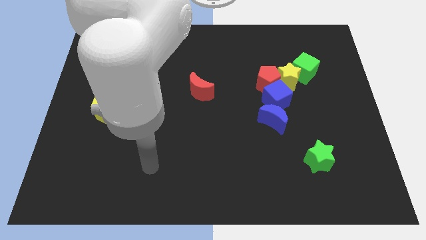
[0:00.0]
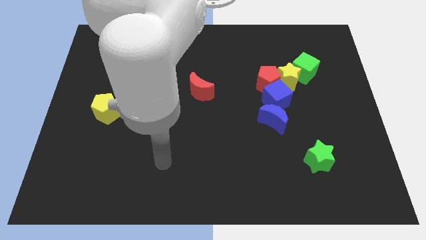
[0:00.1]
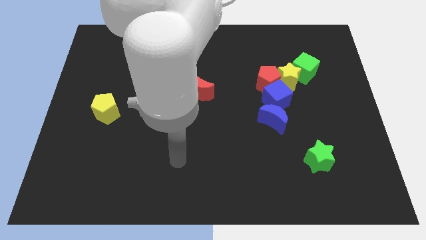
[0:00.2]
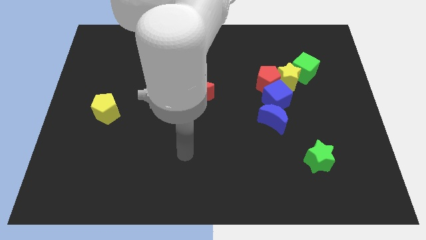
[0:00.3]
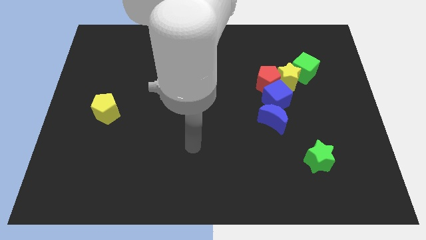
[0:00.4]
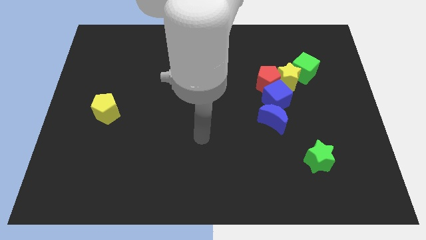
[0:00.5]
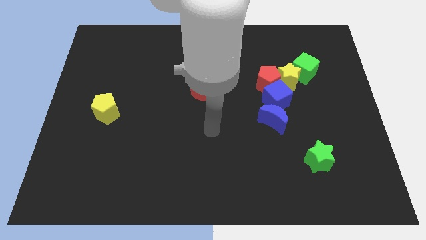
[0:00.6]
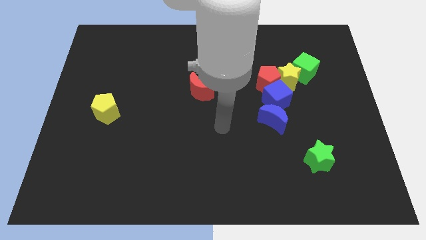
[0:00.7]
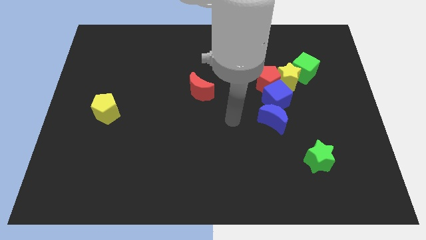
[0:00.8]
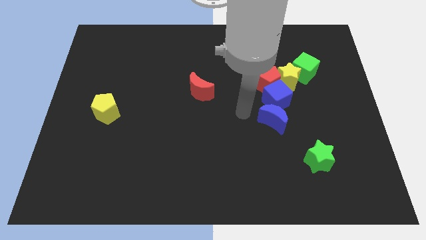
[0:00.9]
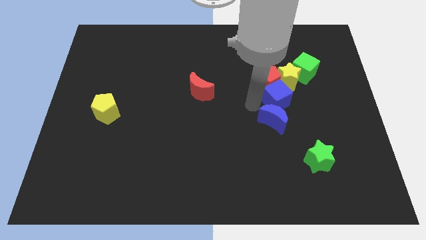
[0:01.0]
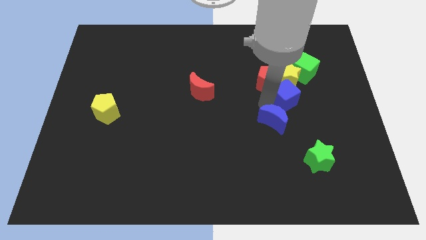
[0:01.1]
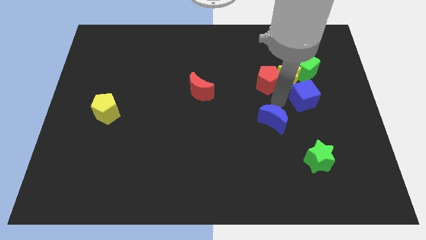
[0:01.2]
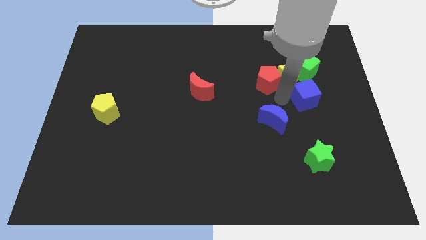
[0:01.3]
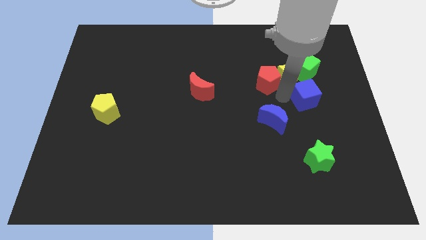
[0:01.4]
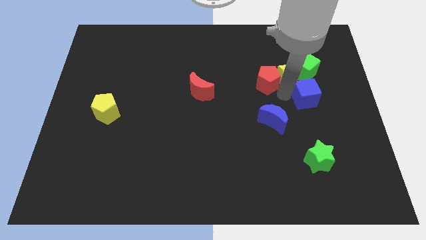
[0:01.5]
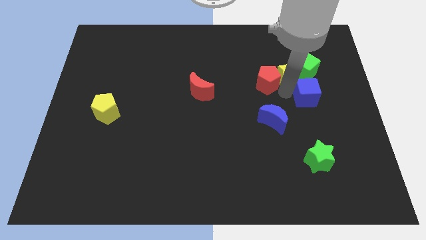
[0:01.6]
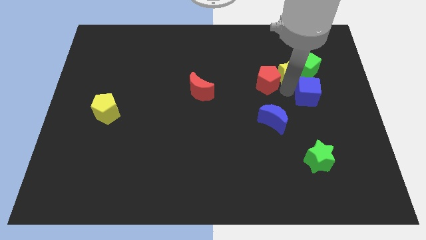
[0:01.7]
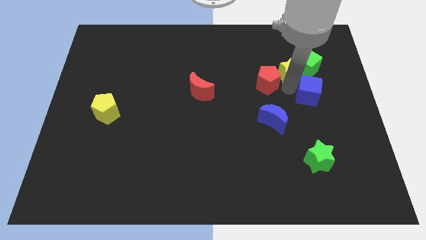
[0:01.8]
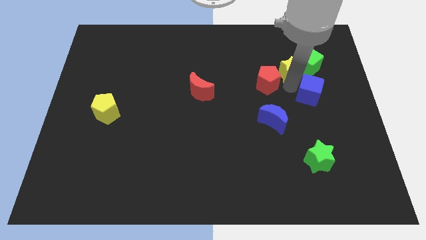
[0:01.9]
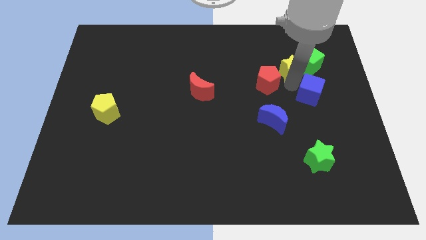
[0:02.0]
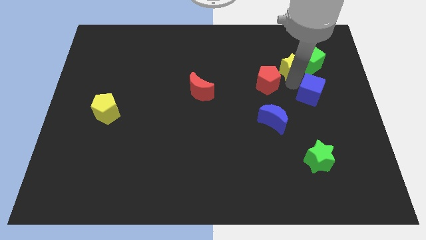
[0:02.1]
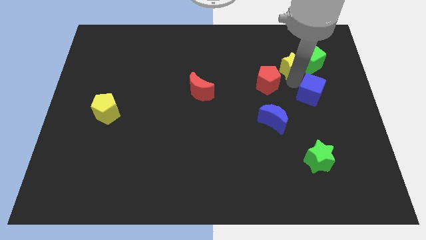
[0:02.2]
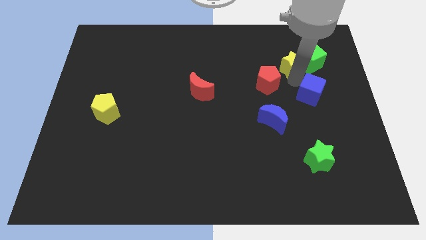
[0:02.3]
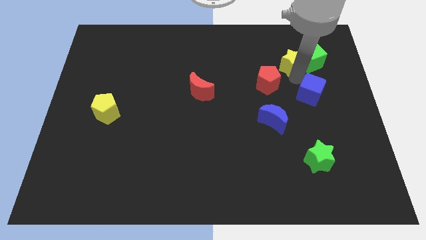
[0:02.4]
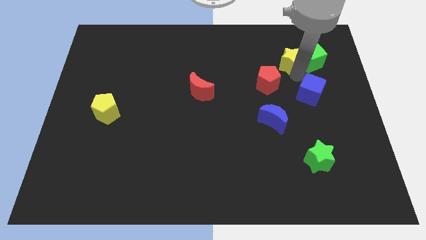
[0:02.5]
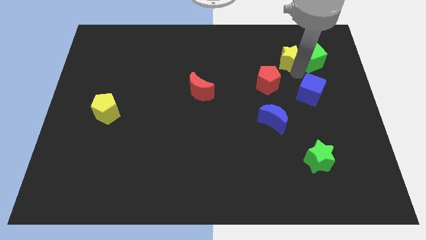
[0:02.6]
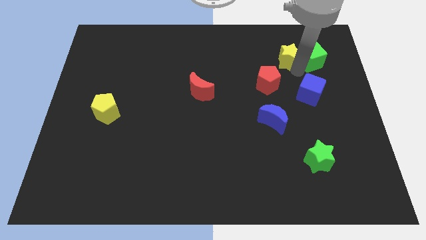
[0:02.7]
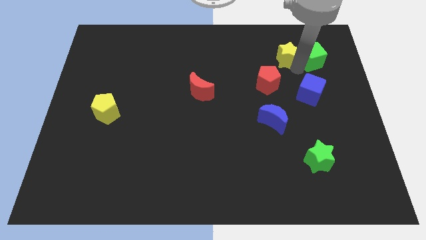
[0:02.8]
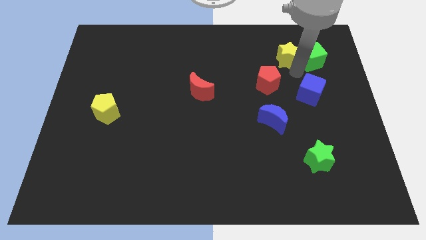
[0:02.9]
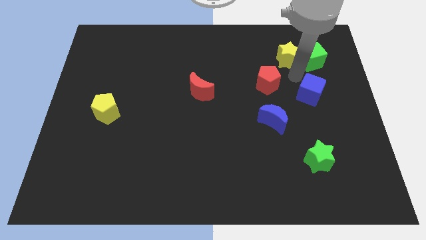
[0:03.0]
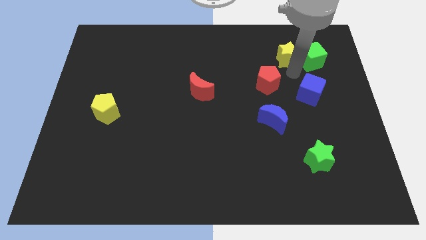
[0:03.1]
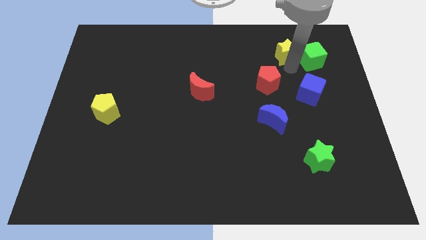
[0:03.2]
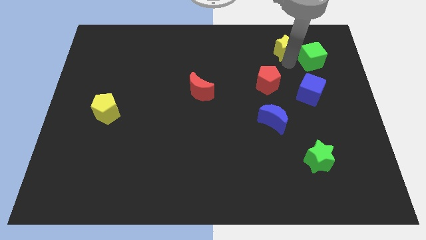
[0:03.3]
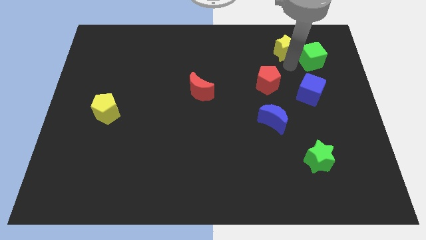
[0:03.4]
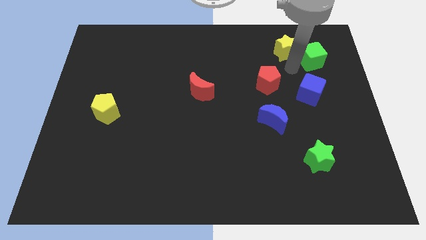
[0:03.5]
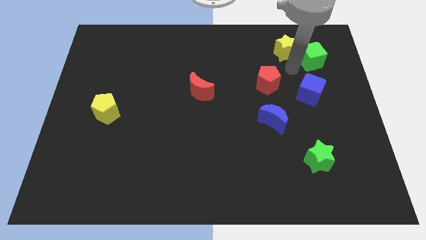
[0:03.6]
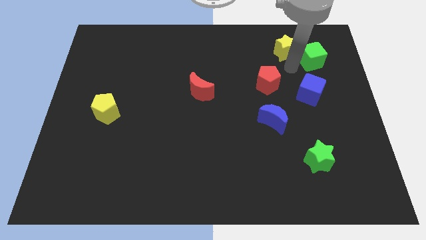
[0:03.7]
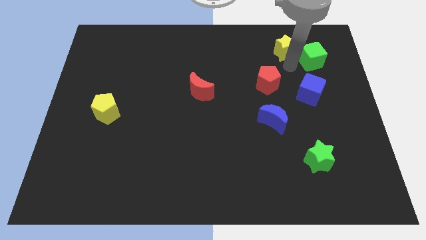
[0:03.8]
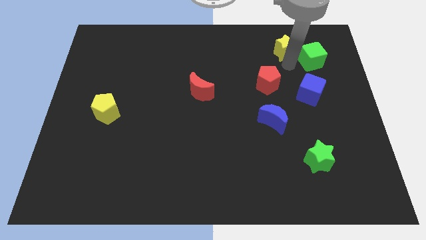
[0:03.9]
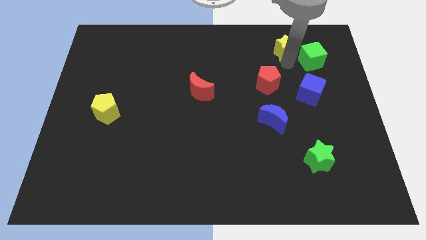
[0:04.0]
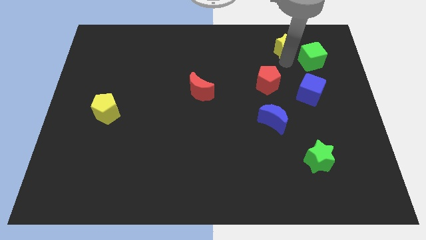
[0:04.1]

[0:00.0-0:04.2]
move the yellow star away from the group

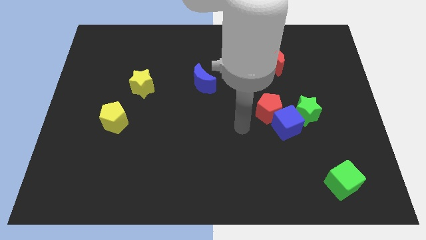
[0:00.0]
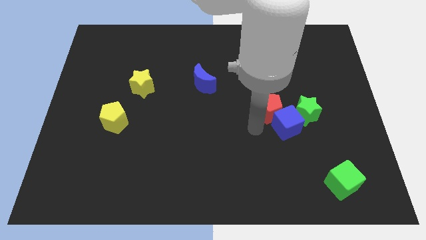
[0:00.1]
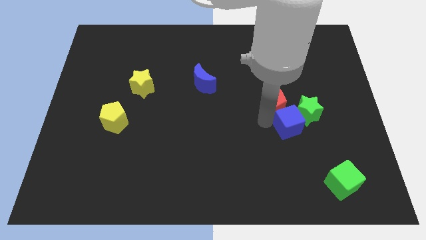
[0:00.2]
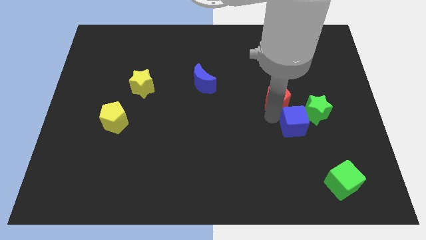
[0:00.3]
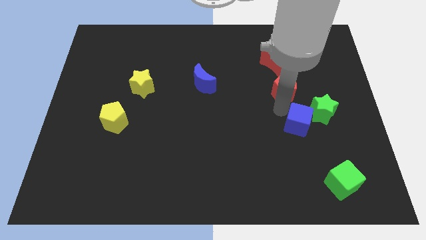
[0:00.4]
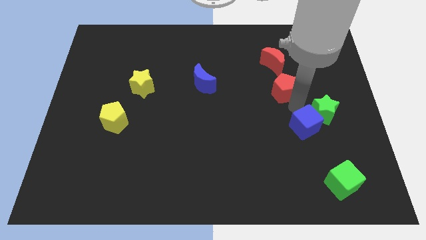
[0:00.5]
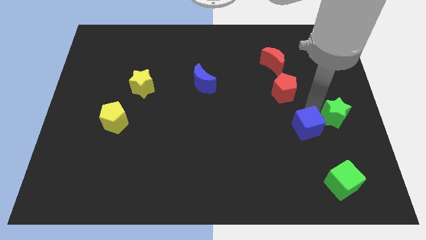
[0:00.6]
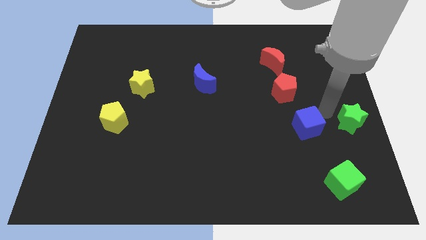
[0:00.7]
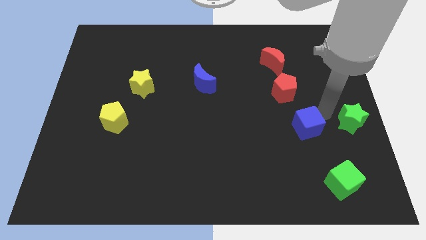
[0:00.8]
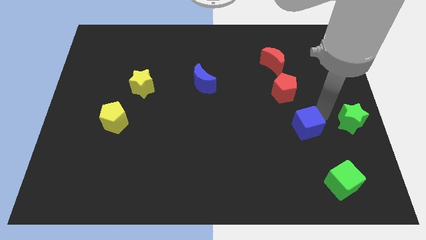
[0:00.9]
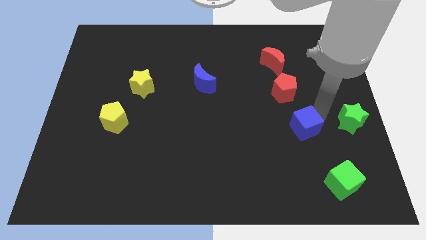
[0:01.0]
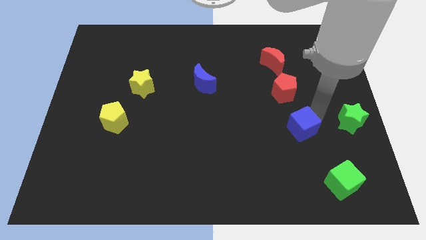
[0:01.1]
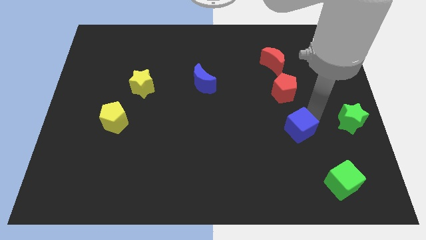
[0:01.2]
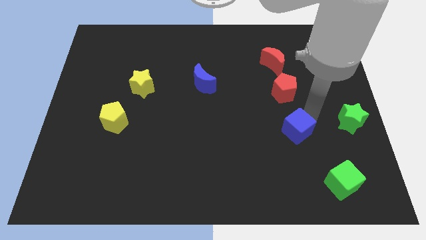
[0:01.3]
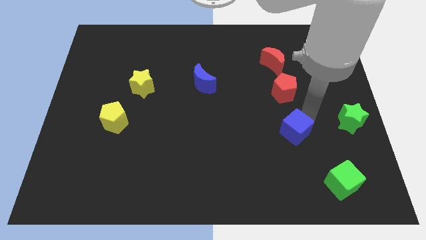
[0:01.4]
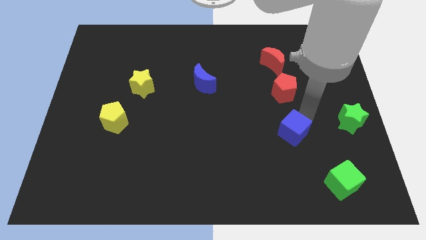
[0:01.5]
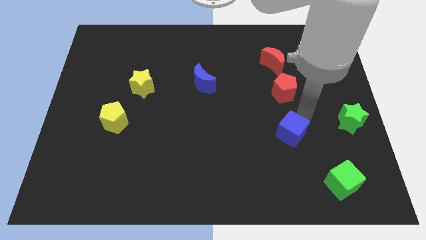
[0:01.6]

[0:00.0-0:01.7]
move the blue cube away from the red pentagon and green star

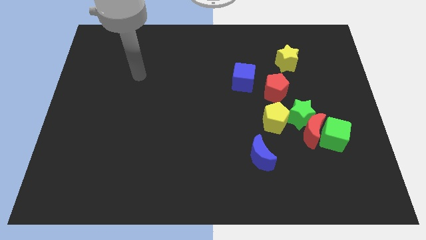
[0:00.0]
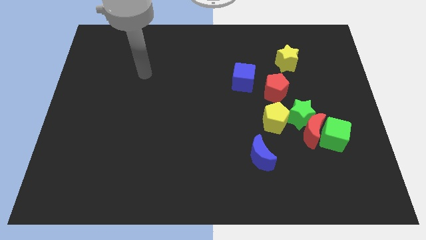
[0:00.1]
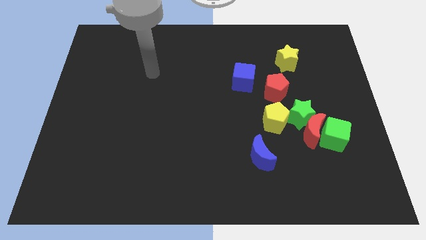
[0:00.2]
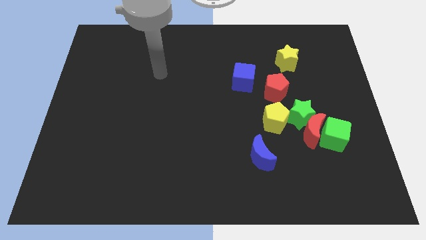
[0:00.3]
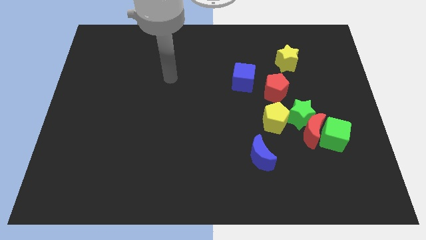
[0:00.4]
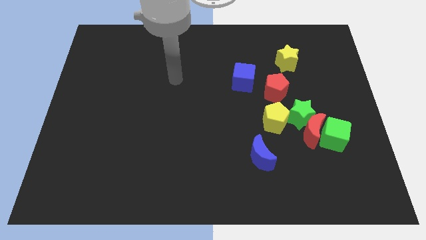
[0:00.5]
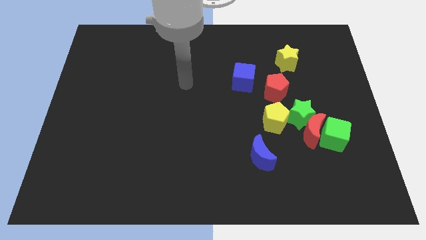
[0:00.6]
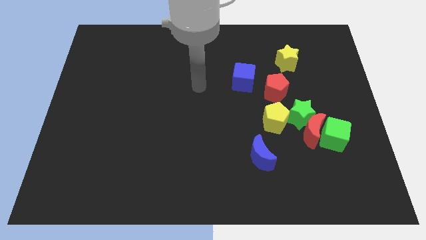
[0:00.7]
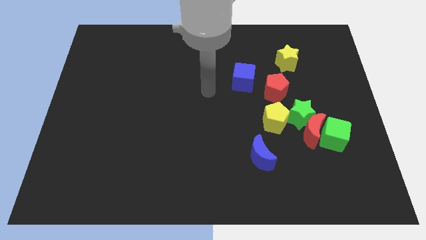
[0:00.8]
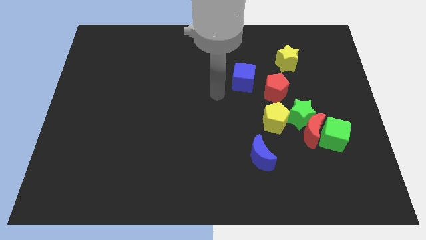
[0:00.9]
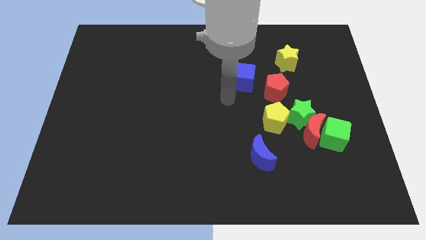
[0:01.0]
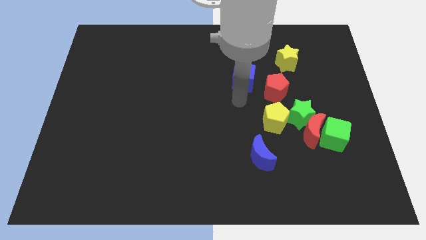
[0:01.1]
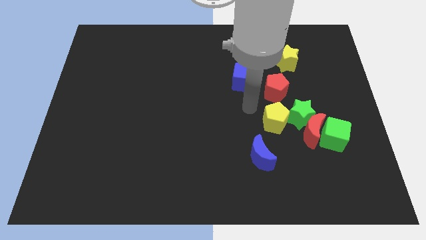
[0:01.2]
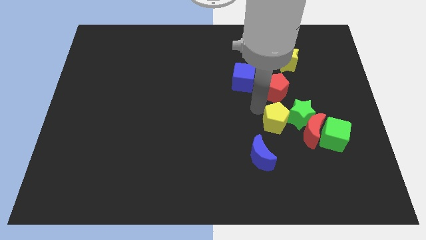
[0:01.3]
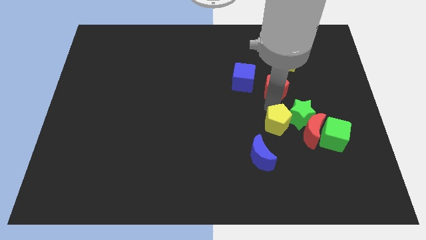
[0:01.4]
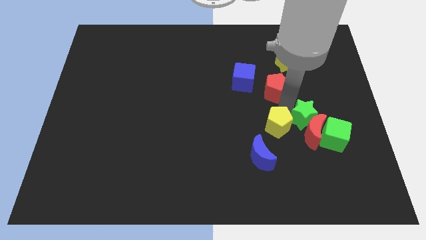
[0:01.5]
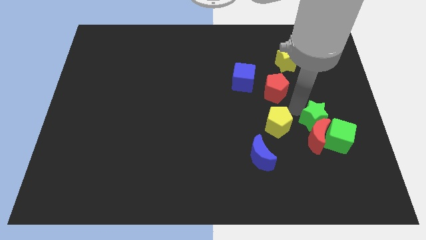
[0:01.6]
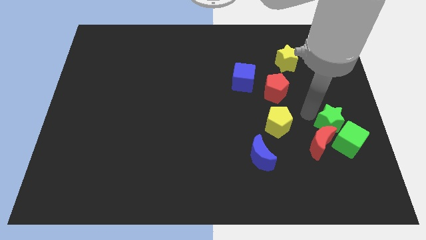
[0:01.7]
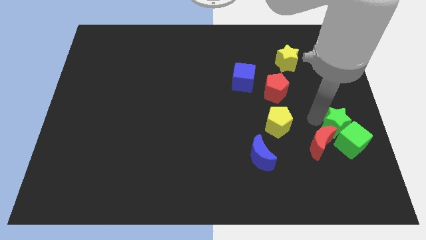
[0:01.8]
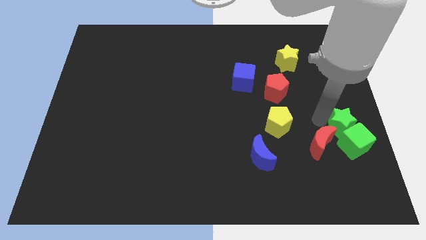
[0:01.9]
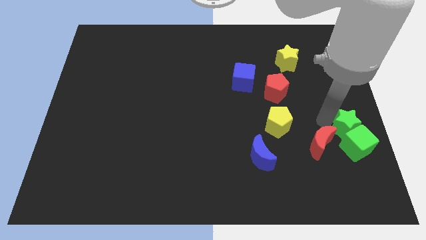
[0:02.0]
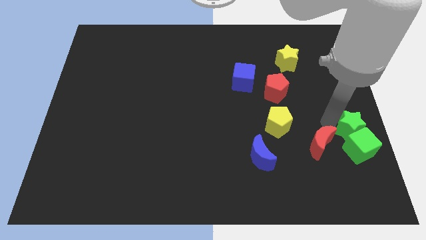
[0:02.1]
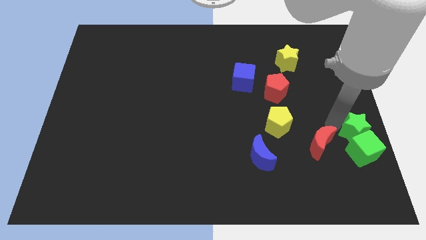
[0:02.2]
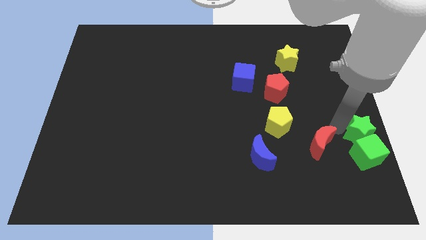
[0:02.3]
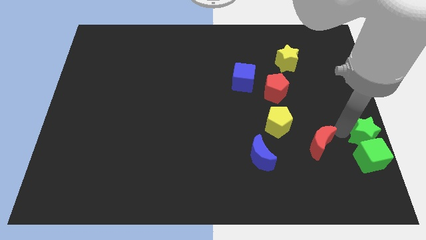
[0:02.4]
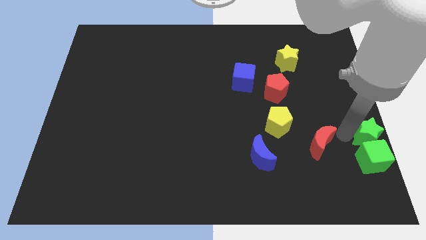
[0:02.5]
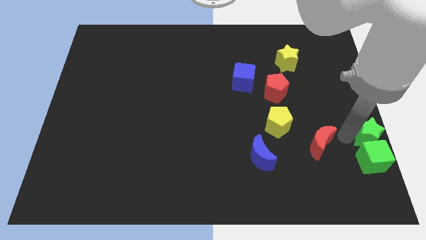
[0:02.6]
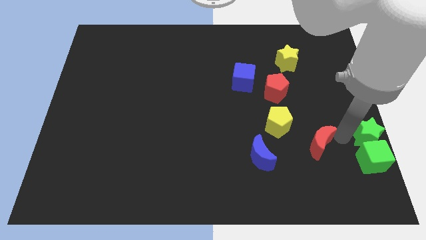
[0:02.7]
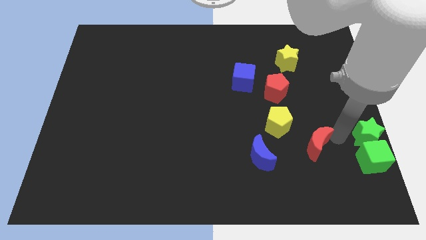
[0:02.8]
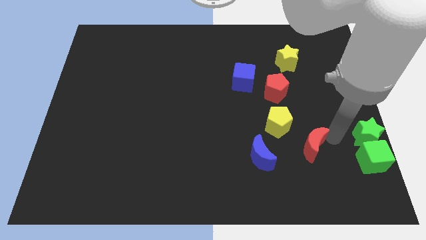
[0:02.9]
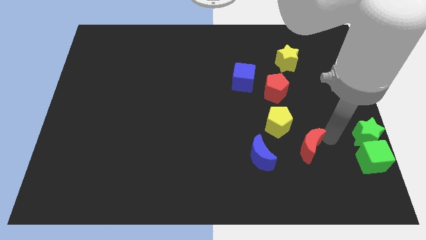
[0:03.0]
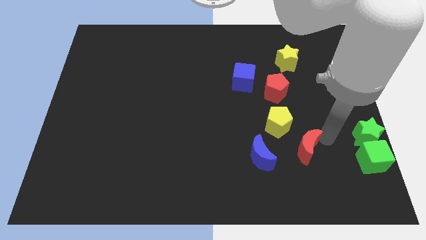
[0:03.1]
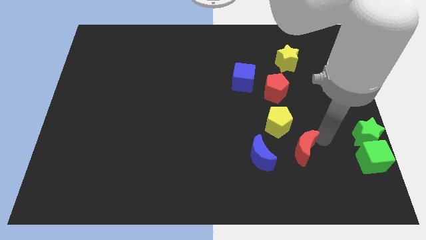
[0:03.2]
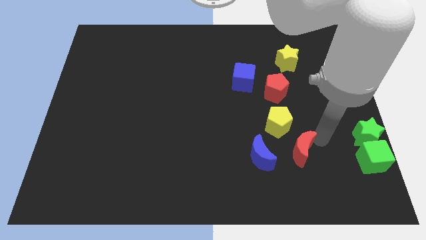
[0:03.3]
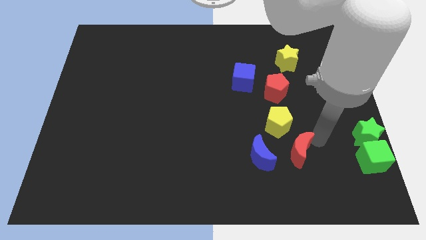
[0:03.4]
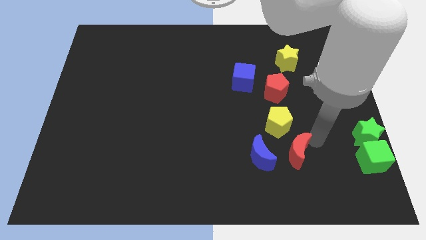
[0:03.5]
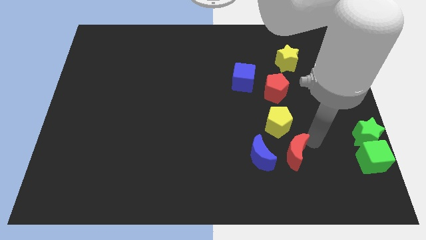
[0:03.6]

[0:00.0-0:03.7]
move the red moon away from the green cube, green star, and yellow pentagon

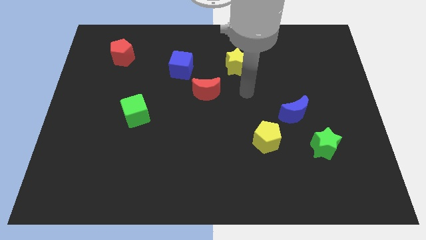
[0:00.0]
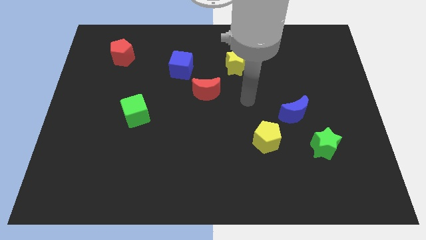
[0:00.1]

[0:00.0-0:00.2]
separate the blue moon from the yellow pentagon
